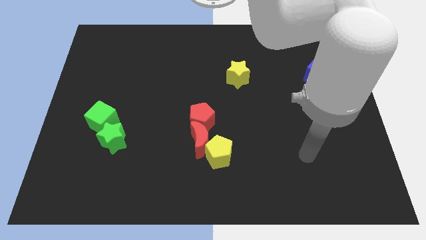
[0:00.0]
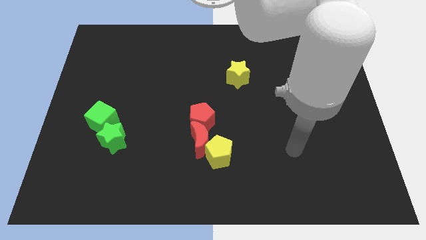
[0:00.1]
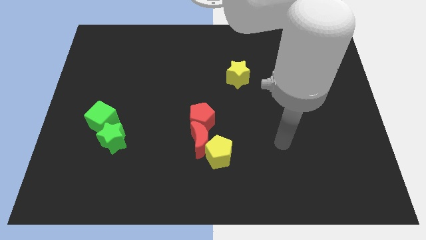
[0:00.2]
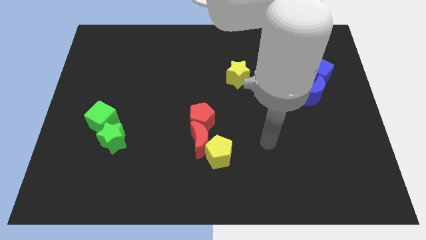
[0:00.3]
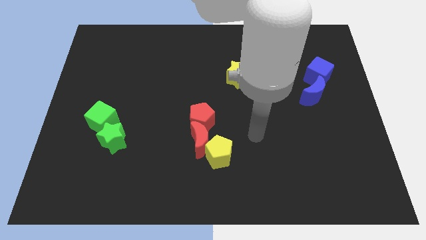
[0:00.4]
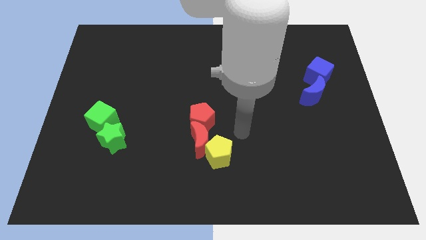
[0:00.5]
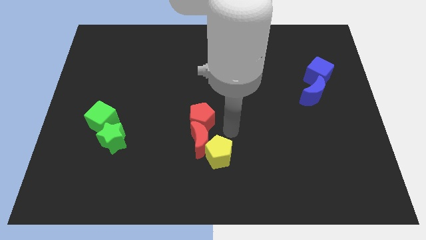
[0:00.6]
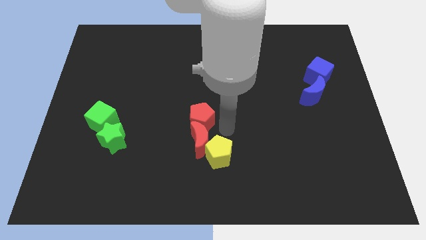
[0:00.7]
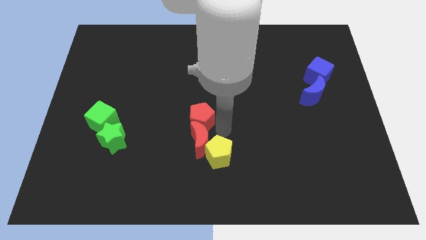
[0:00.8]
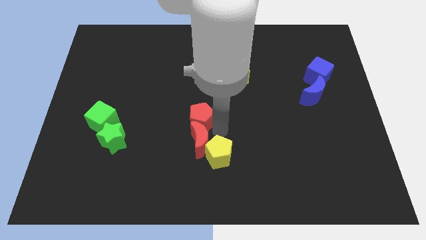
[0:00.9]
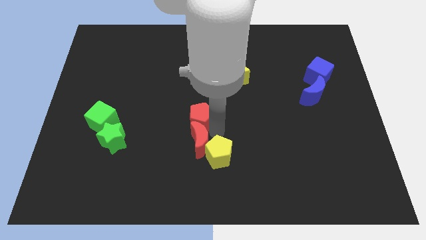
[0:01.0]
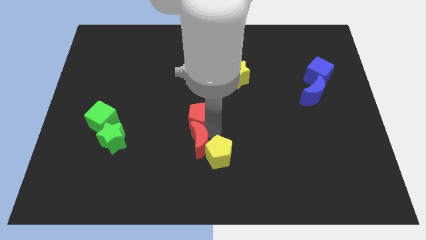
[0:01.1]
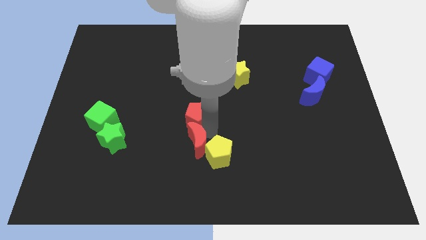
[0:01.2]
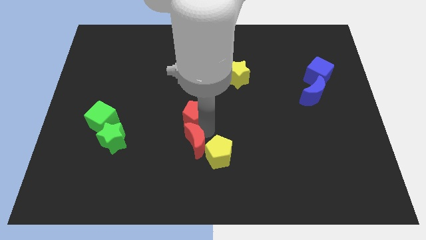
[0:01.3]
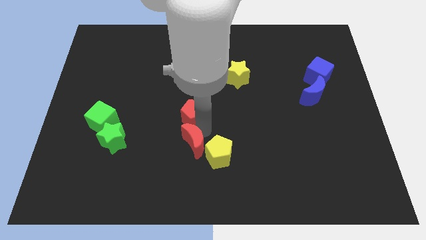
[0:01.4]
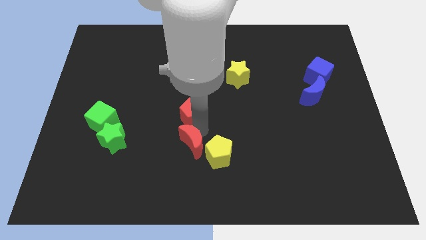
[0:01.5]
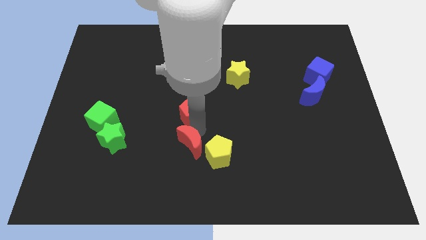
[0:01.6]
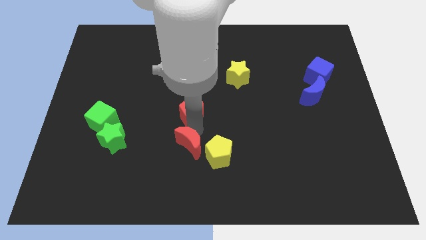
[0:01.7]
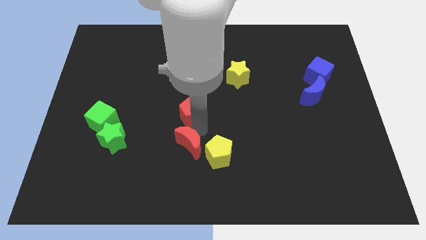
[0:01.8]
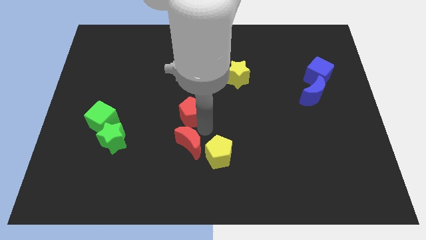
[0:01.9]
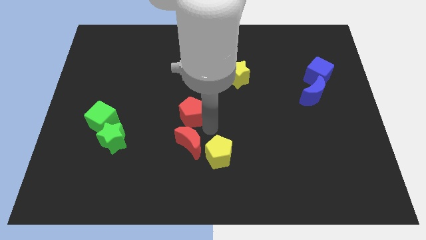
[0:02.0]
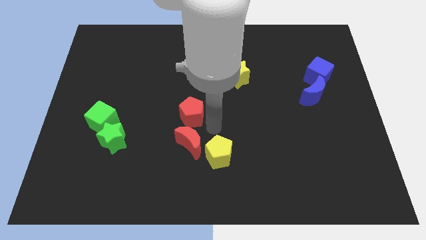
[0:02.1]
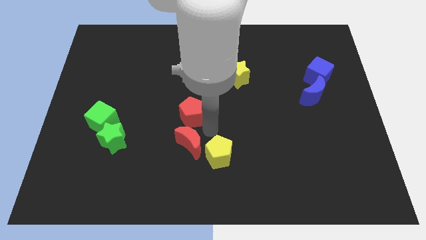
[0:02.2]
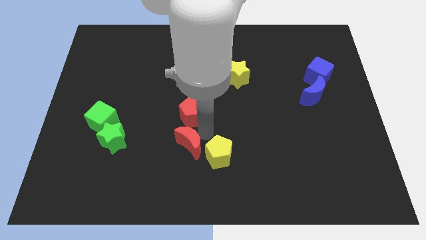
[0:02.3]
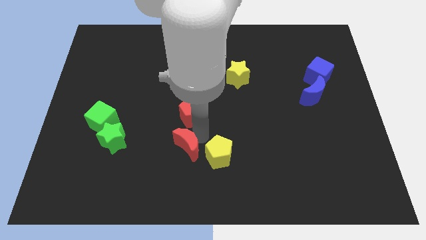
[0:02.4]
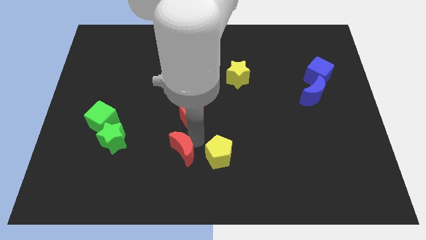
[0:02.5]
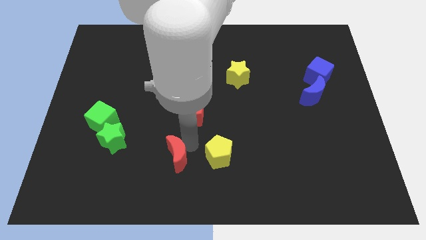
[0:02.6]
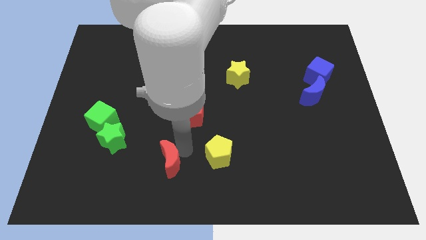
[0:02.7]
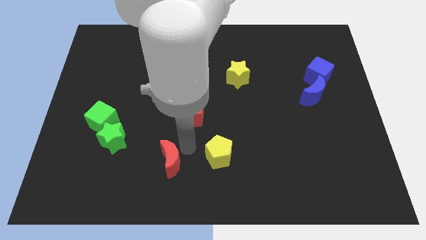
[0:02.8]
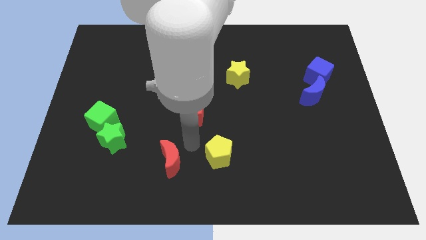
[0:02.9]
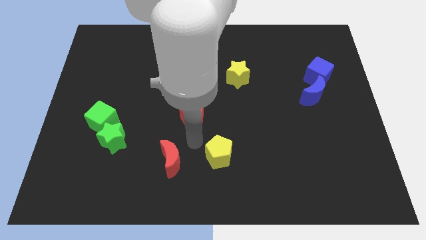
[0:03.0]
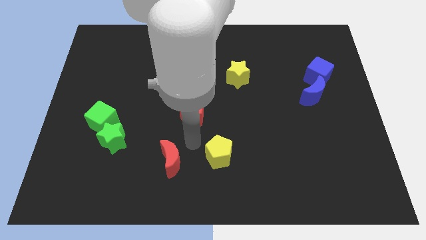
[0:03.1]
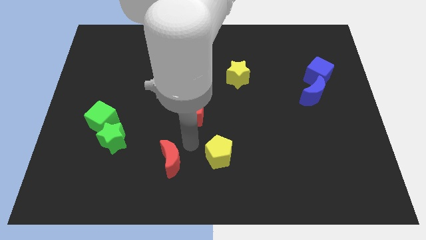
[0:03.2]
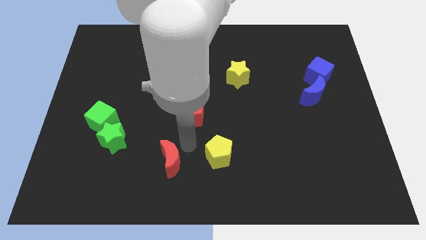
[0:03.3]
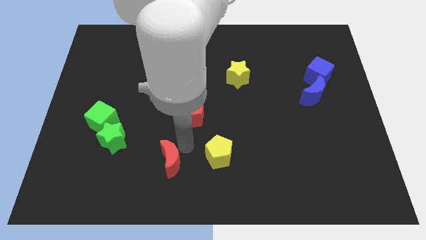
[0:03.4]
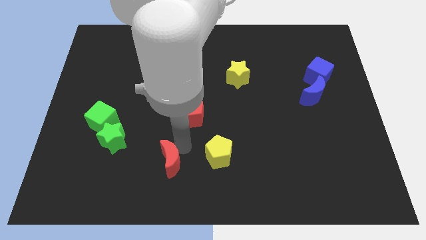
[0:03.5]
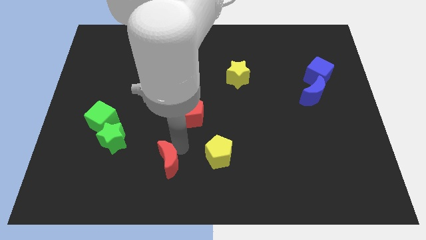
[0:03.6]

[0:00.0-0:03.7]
move the red moon away from the yellow pentagon and red pentagon

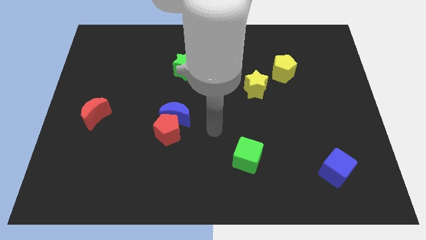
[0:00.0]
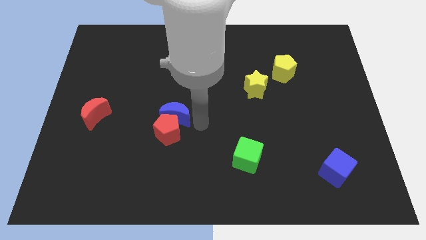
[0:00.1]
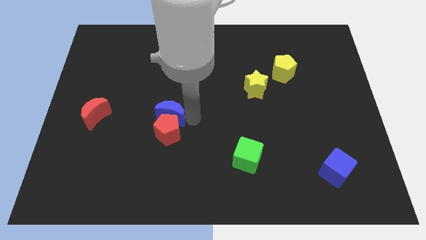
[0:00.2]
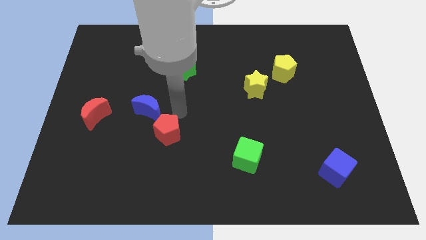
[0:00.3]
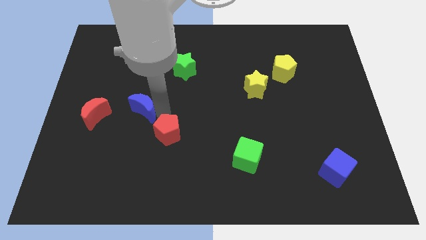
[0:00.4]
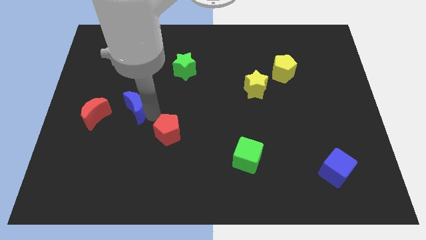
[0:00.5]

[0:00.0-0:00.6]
move the red pentagon away from the blue moon

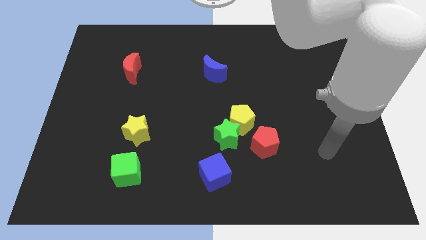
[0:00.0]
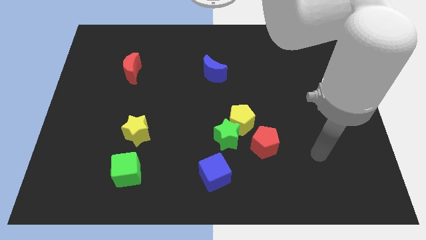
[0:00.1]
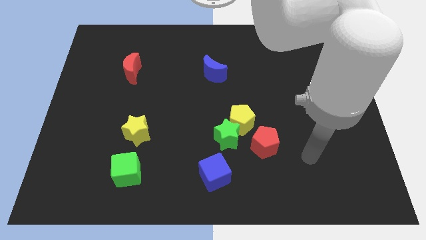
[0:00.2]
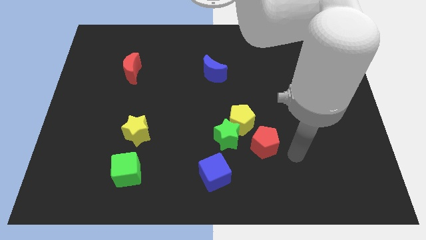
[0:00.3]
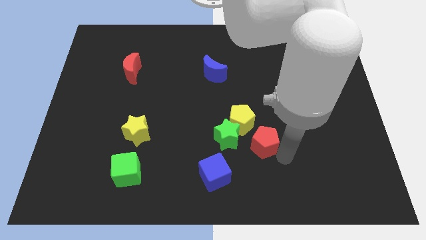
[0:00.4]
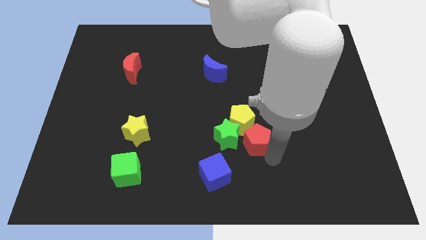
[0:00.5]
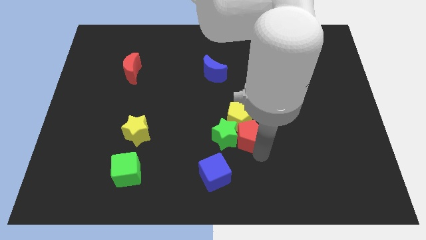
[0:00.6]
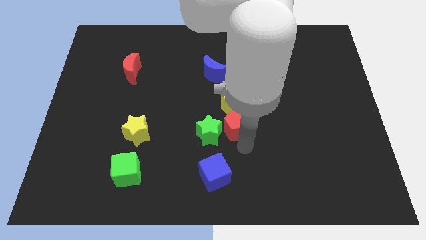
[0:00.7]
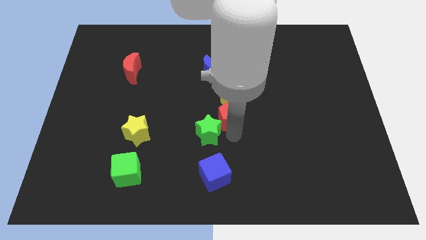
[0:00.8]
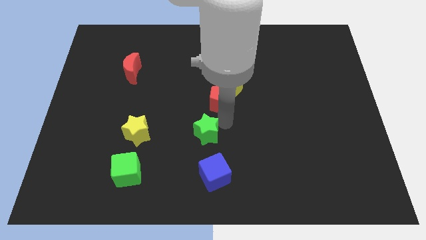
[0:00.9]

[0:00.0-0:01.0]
move the yellow pentagon away from the green star and red pentagon

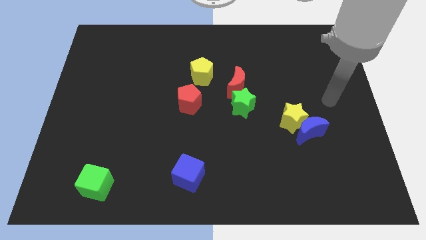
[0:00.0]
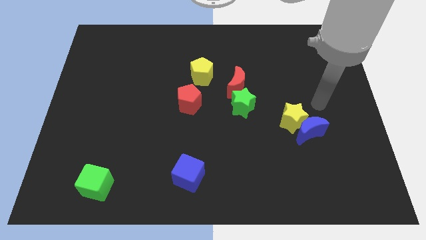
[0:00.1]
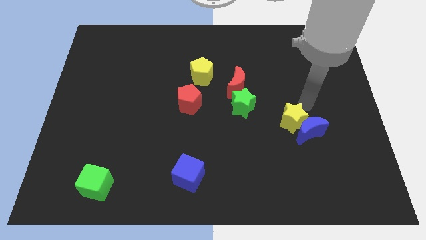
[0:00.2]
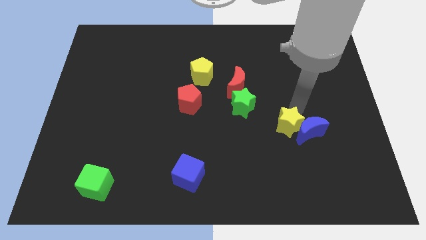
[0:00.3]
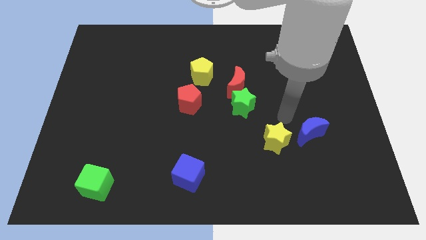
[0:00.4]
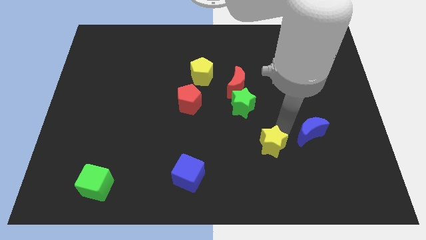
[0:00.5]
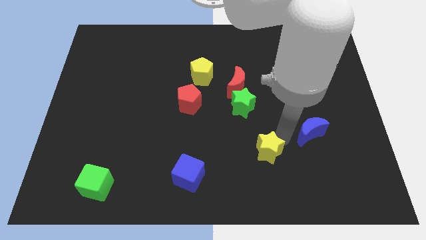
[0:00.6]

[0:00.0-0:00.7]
move the blue moon away from the yellow star

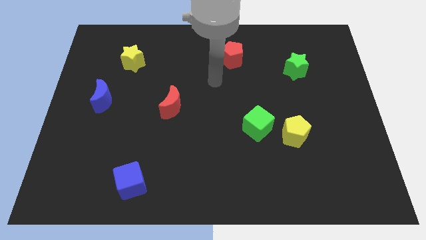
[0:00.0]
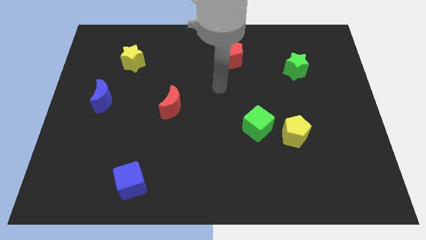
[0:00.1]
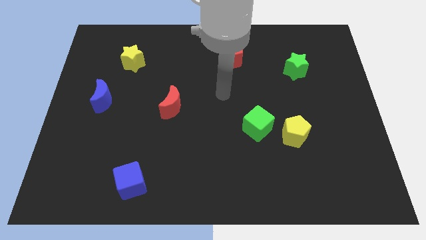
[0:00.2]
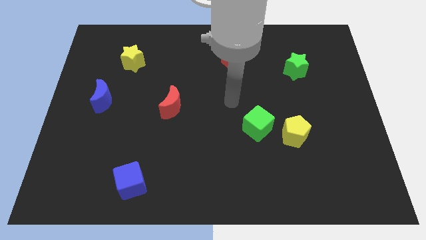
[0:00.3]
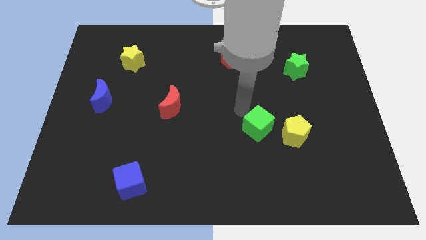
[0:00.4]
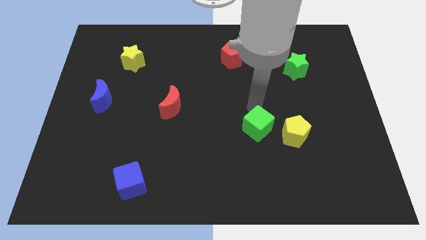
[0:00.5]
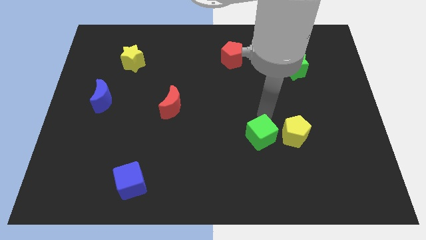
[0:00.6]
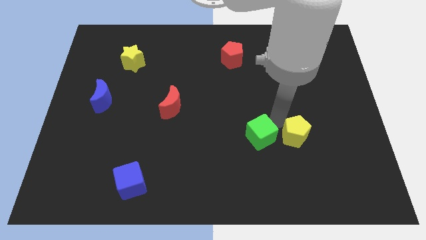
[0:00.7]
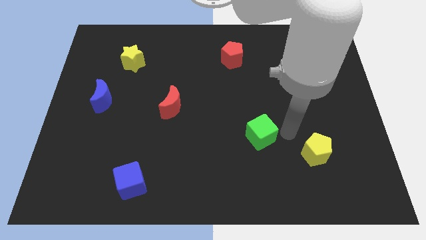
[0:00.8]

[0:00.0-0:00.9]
pull the green cube apart from the yellow pentagon

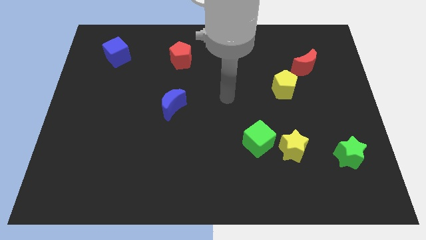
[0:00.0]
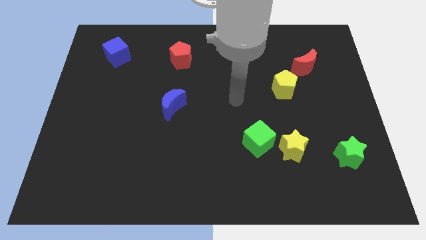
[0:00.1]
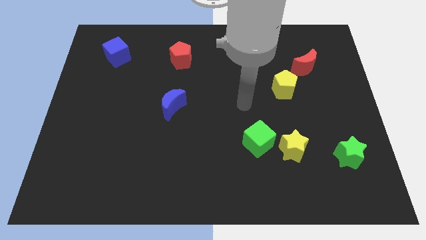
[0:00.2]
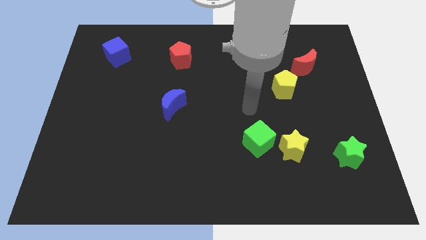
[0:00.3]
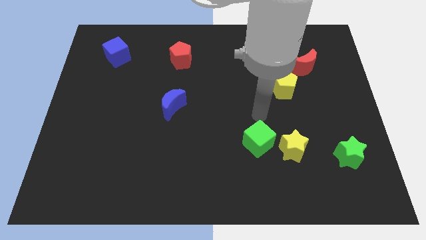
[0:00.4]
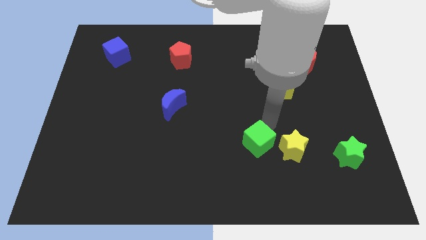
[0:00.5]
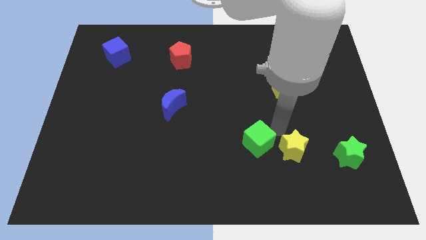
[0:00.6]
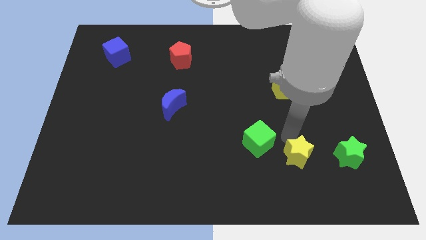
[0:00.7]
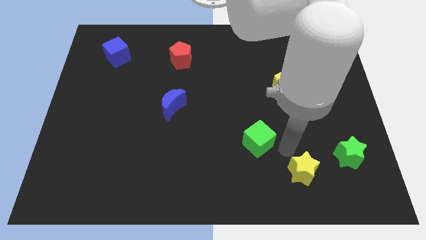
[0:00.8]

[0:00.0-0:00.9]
move the green cube away from the yellow star

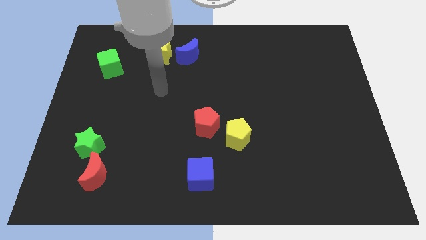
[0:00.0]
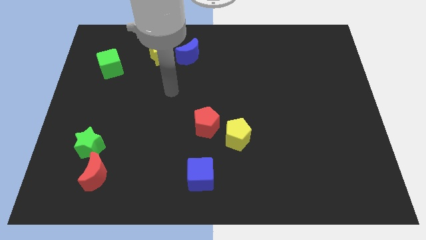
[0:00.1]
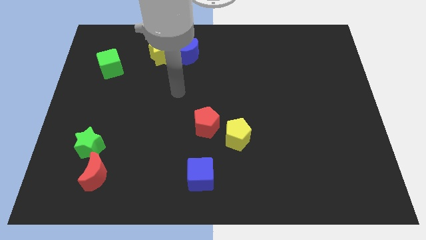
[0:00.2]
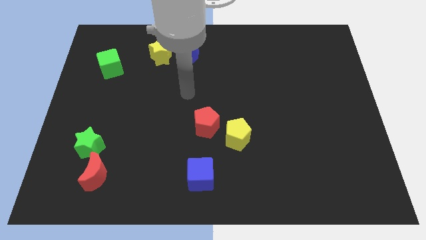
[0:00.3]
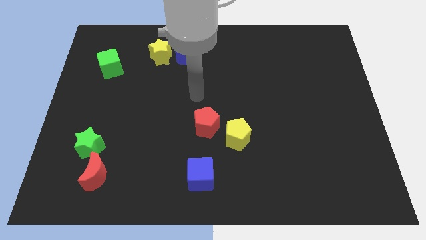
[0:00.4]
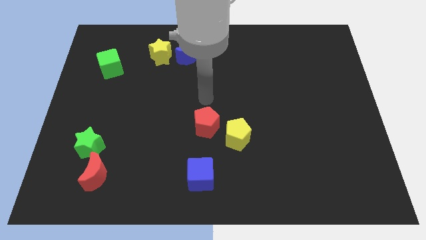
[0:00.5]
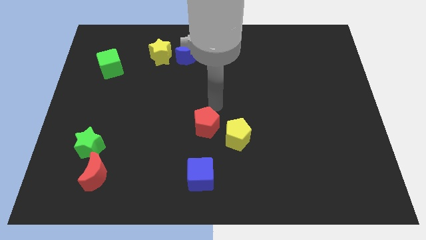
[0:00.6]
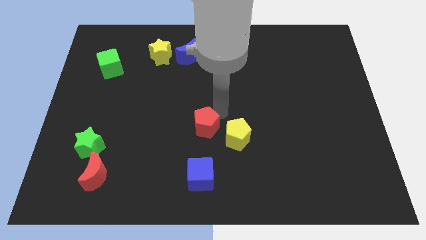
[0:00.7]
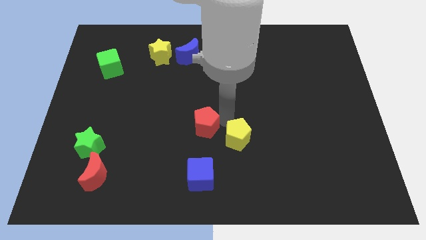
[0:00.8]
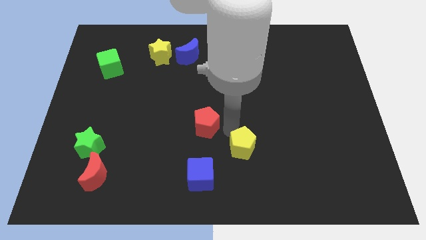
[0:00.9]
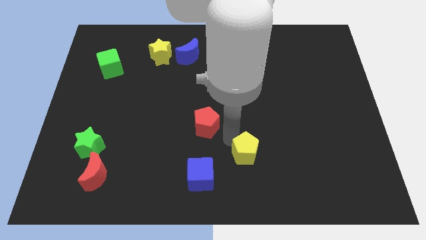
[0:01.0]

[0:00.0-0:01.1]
separate the red pentagon from the yellow pentagon

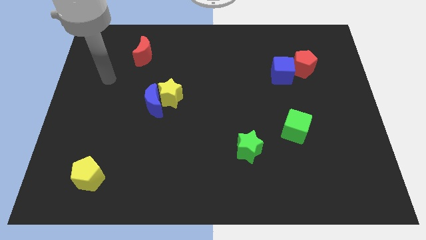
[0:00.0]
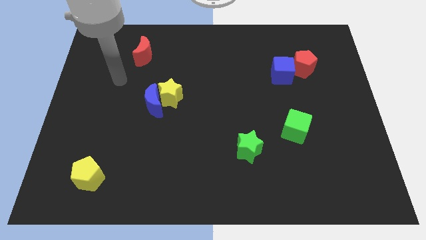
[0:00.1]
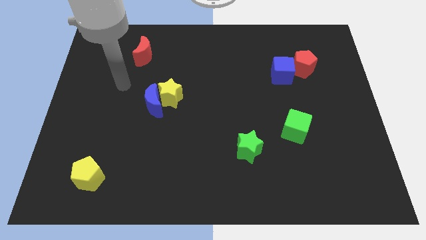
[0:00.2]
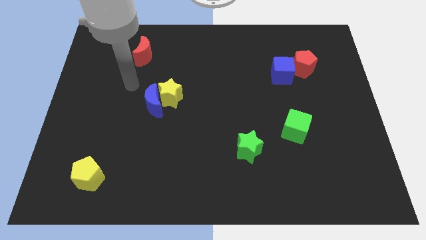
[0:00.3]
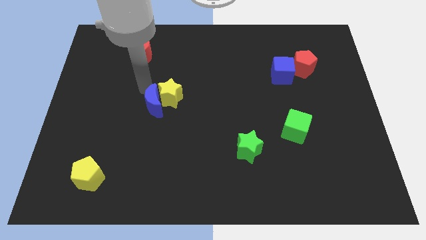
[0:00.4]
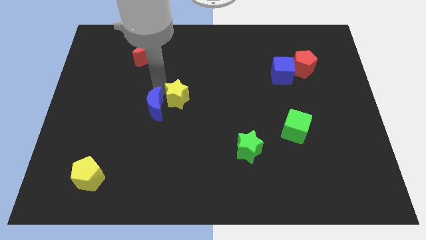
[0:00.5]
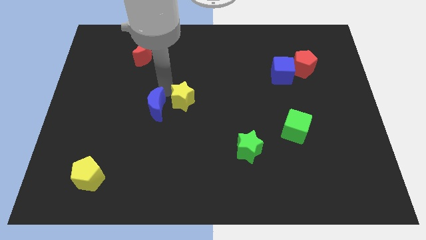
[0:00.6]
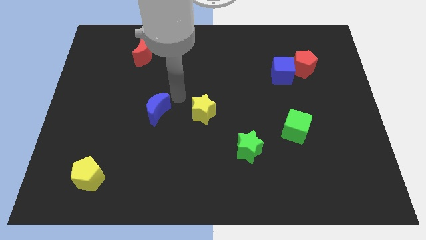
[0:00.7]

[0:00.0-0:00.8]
pull the blue moon apart from the yellow star
